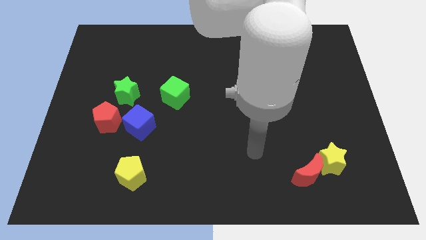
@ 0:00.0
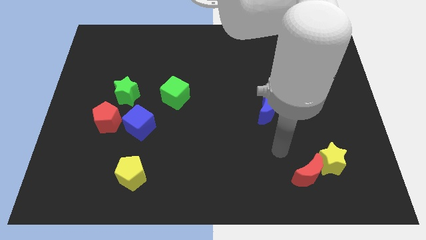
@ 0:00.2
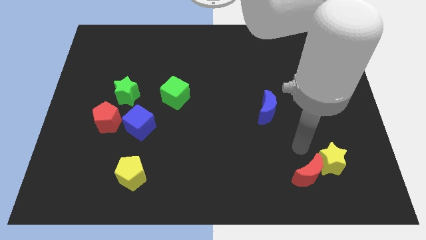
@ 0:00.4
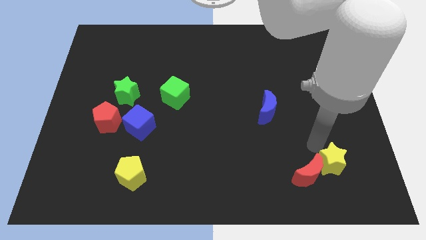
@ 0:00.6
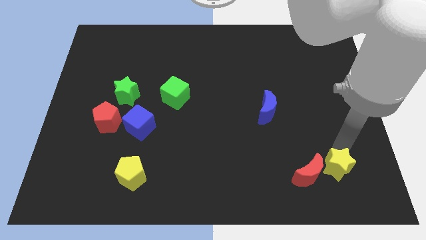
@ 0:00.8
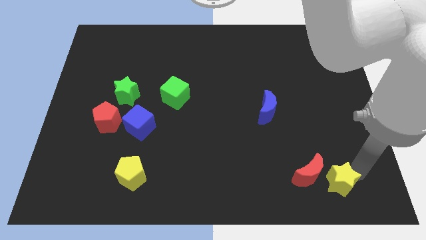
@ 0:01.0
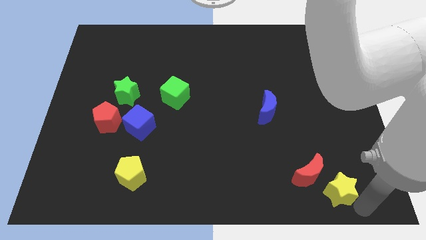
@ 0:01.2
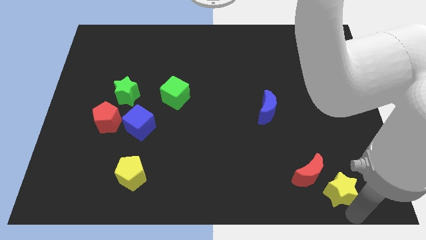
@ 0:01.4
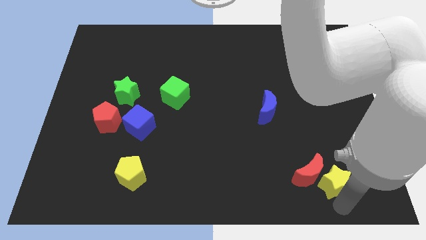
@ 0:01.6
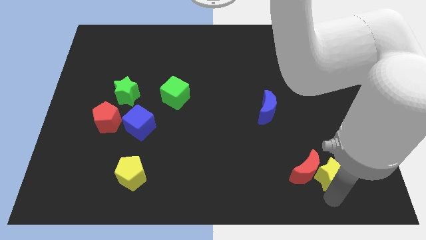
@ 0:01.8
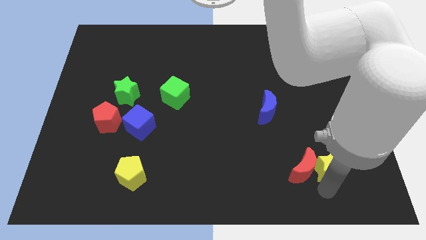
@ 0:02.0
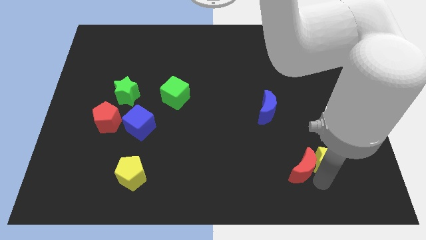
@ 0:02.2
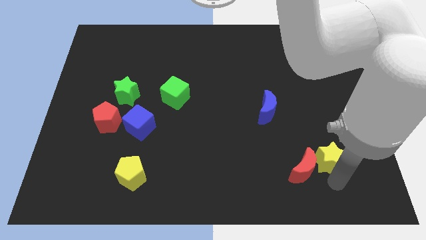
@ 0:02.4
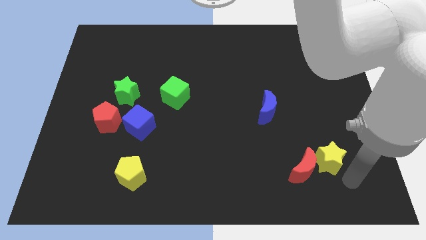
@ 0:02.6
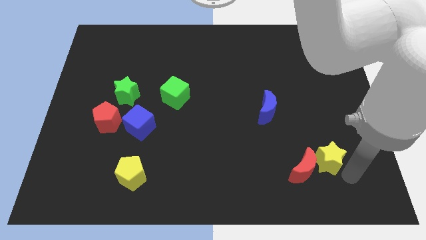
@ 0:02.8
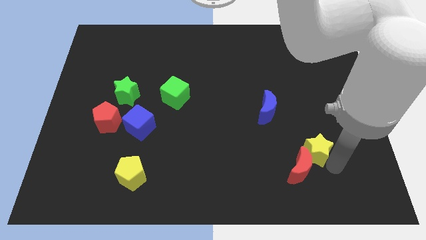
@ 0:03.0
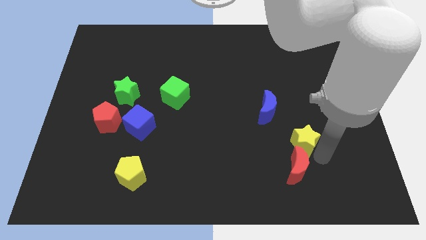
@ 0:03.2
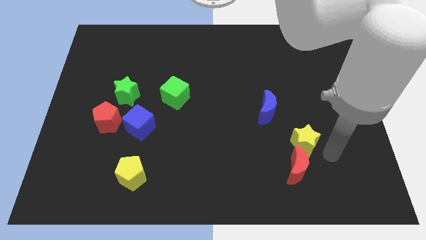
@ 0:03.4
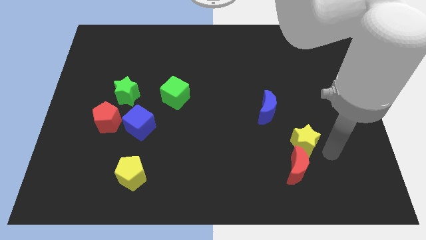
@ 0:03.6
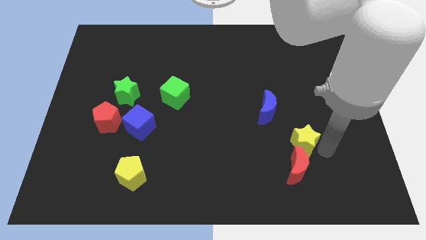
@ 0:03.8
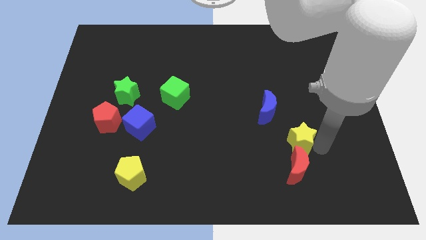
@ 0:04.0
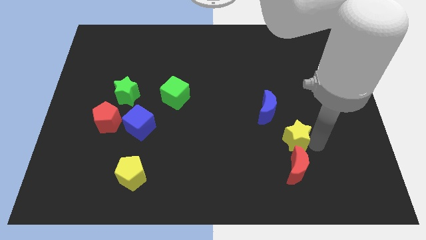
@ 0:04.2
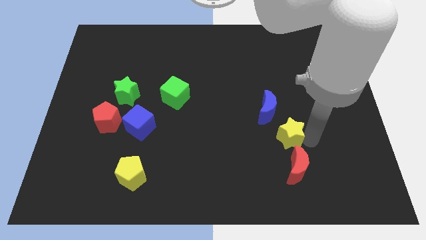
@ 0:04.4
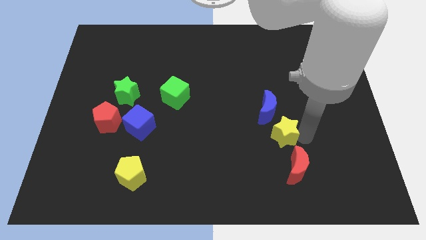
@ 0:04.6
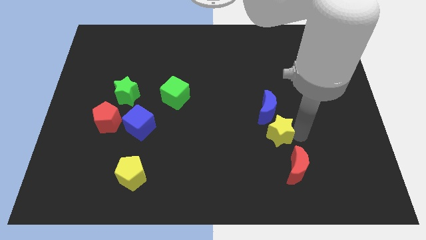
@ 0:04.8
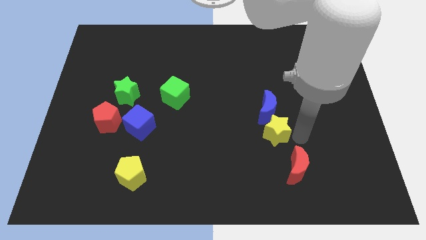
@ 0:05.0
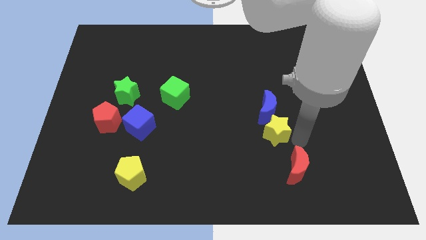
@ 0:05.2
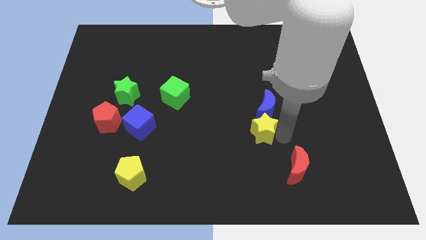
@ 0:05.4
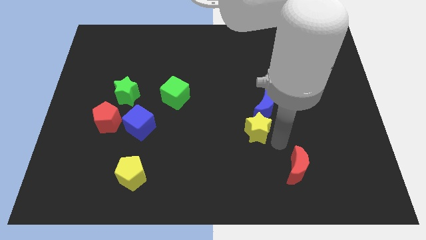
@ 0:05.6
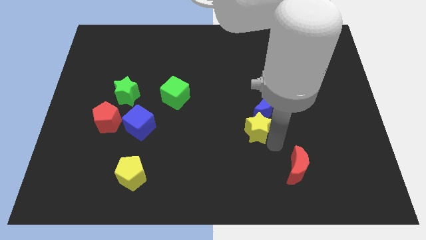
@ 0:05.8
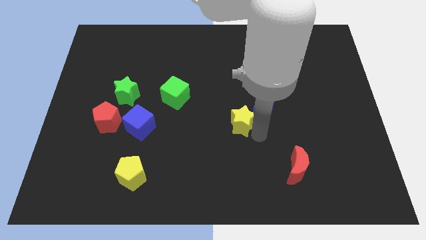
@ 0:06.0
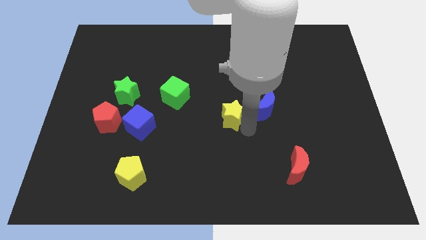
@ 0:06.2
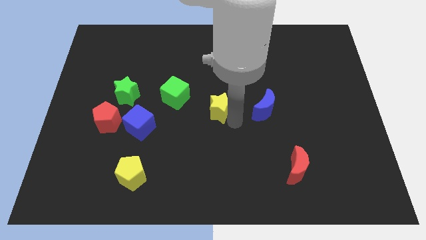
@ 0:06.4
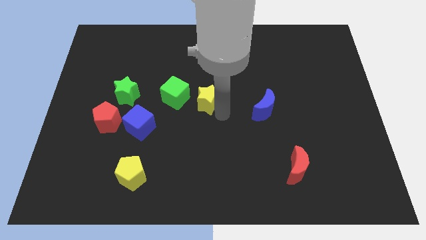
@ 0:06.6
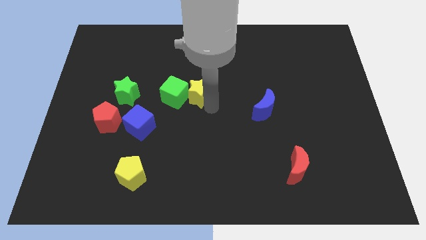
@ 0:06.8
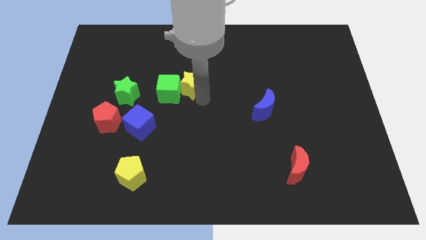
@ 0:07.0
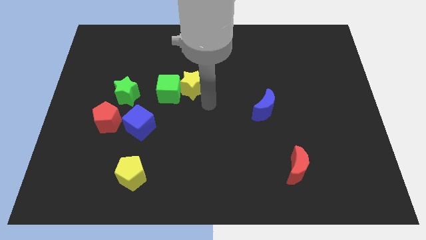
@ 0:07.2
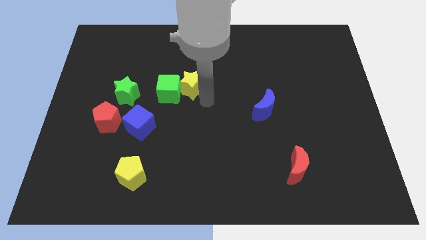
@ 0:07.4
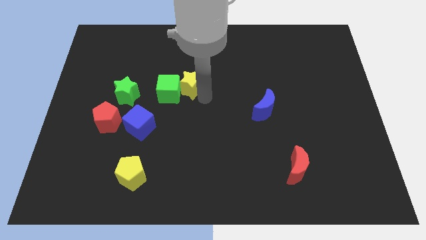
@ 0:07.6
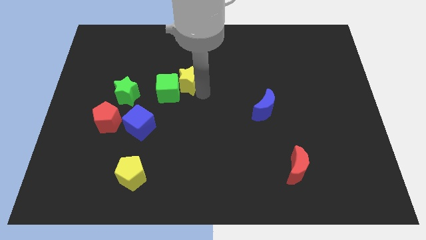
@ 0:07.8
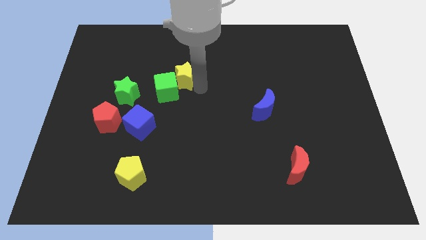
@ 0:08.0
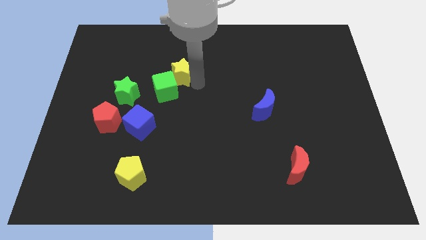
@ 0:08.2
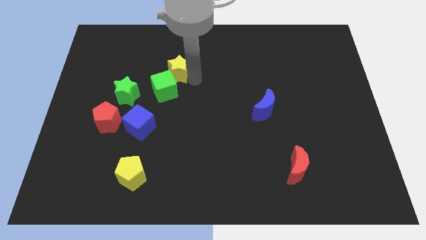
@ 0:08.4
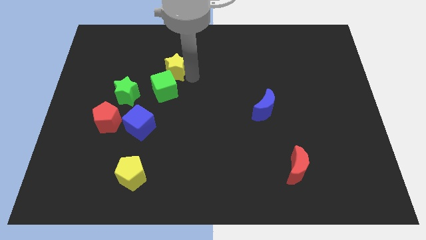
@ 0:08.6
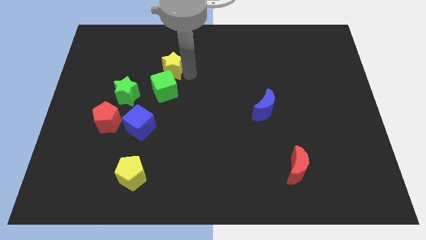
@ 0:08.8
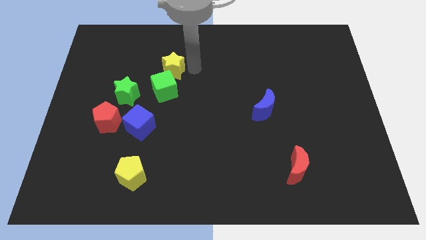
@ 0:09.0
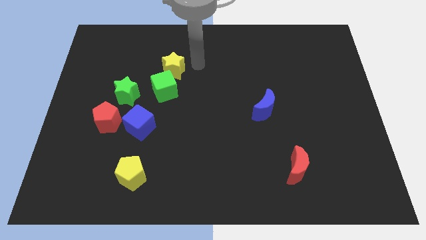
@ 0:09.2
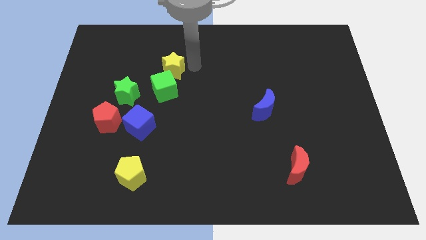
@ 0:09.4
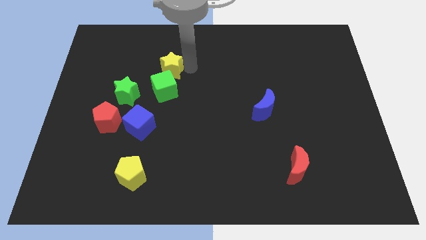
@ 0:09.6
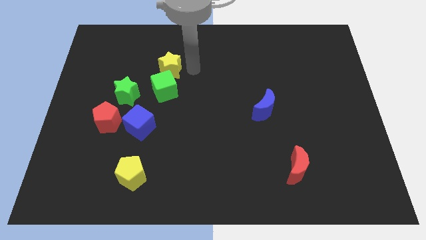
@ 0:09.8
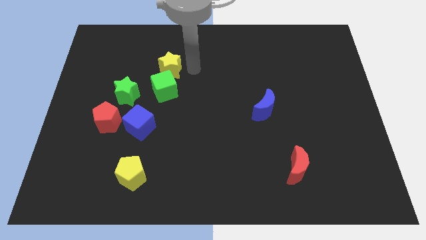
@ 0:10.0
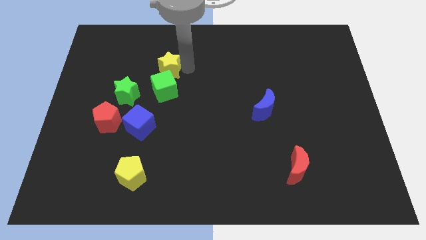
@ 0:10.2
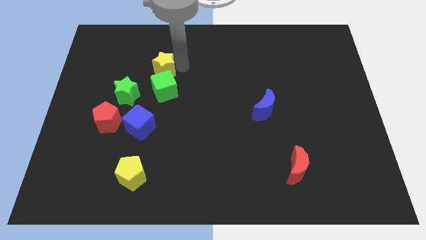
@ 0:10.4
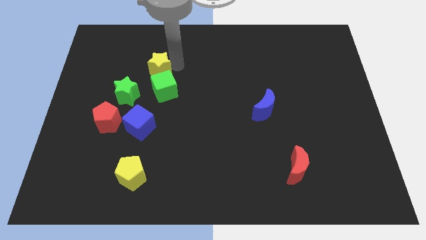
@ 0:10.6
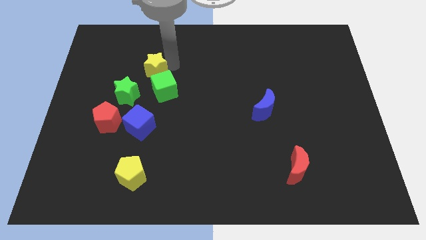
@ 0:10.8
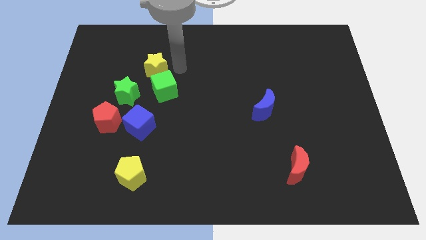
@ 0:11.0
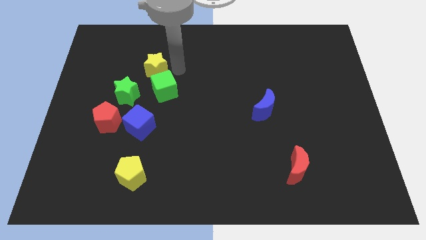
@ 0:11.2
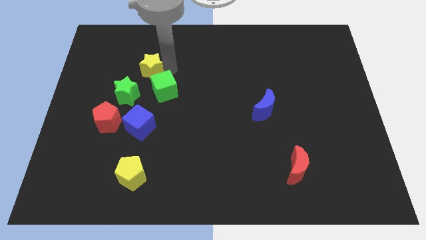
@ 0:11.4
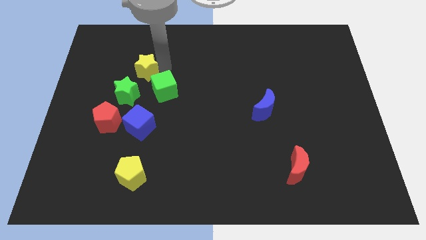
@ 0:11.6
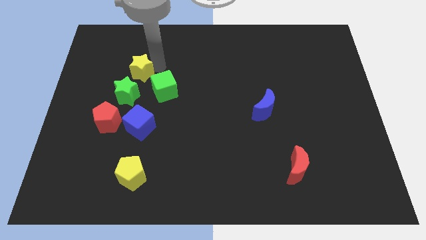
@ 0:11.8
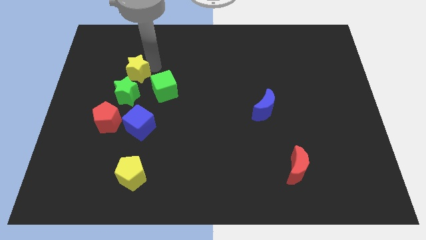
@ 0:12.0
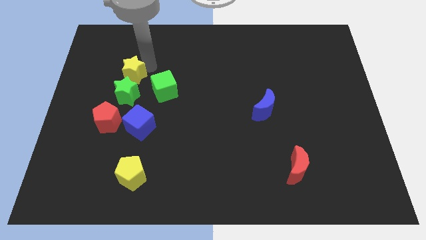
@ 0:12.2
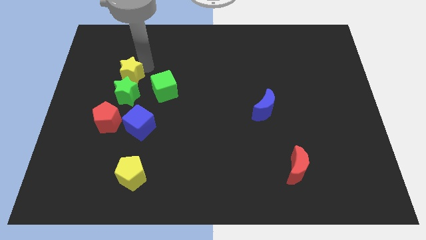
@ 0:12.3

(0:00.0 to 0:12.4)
push the yellow star diagonally up and to the left of the green star

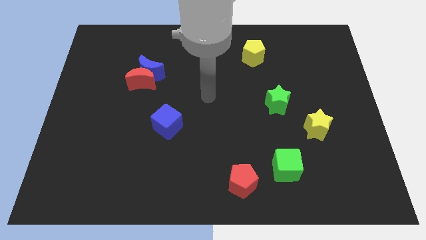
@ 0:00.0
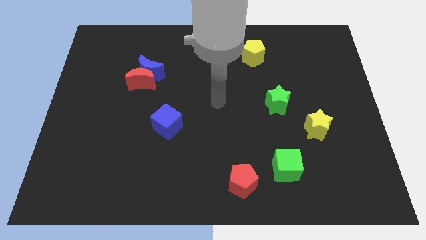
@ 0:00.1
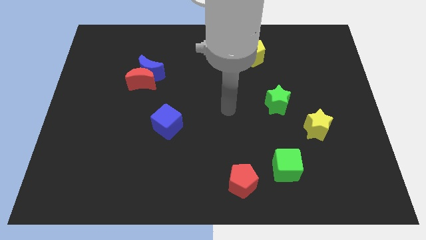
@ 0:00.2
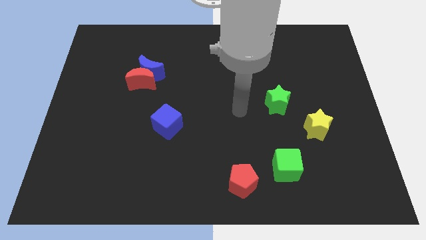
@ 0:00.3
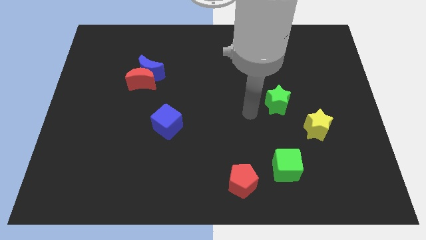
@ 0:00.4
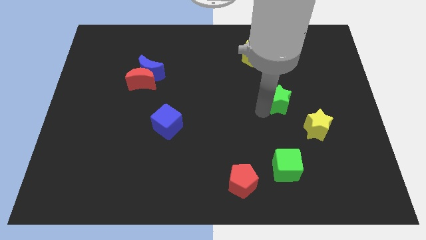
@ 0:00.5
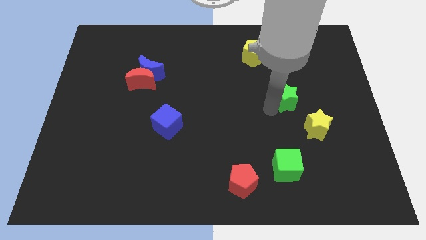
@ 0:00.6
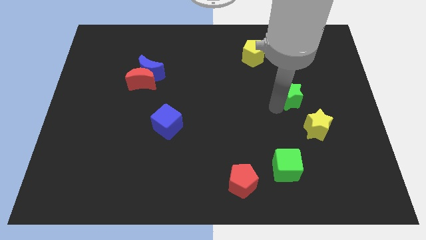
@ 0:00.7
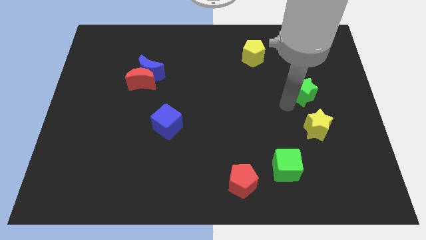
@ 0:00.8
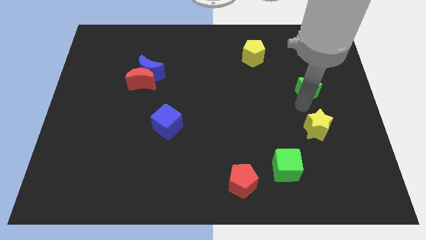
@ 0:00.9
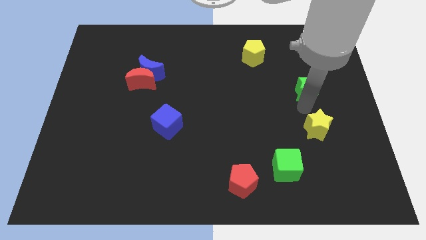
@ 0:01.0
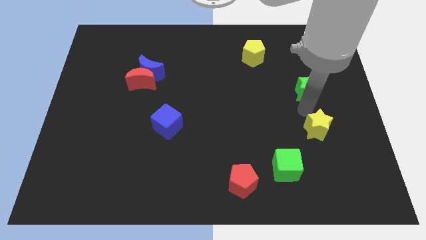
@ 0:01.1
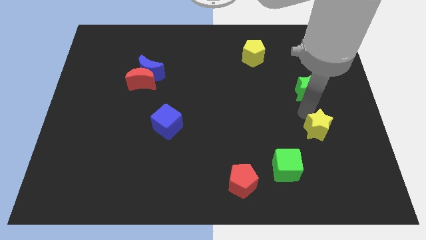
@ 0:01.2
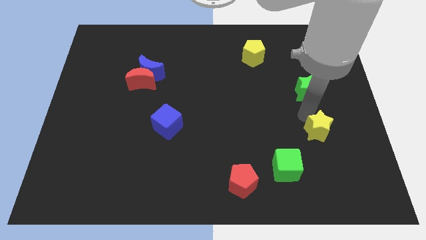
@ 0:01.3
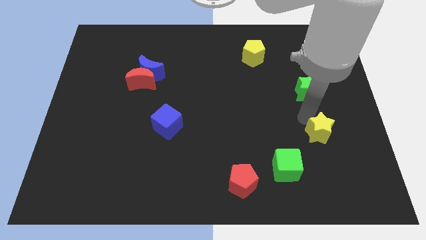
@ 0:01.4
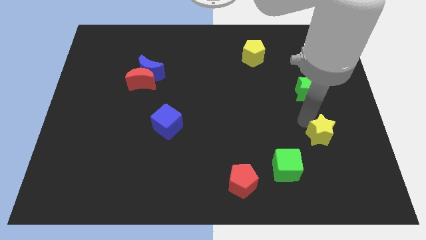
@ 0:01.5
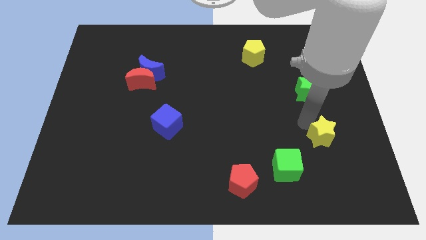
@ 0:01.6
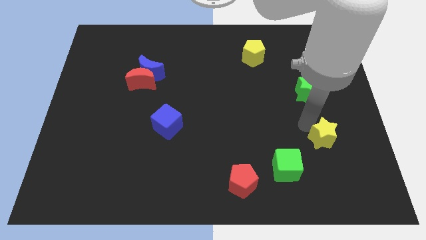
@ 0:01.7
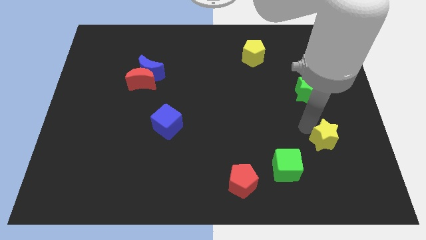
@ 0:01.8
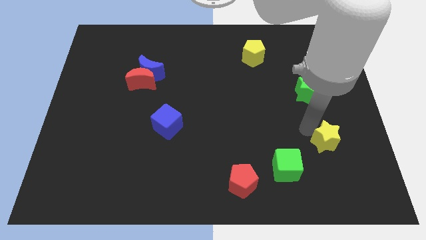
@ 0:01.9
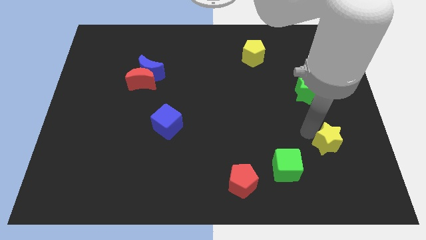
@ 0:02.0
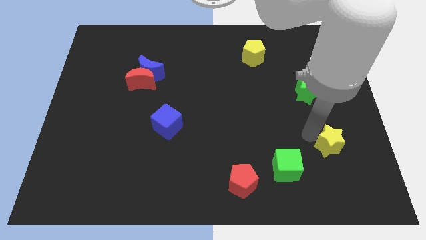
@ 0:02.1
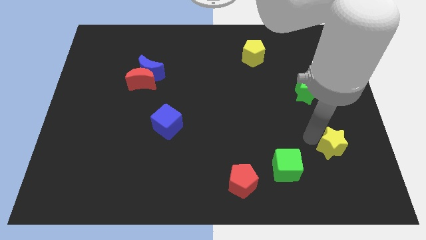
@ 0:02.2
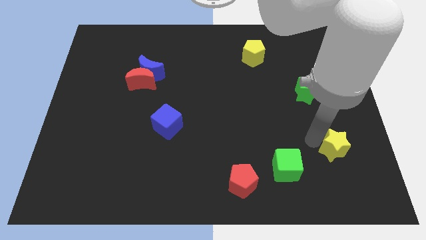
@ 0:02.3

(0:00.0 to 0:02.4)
slide the yellow star to the right side of the green cube
